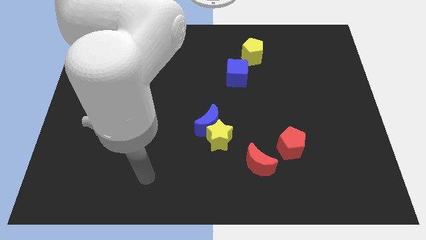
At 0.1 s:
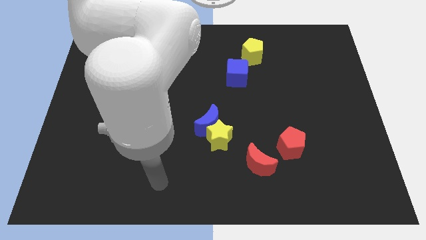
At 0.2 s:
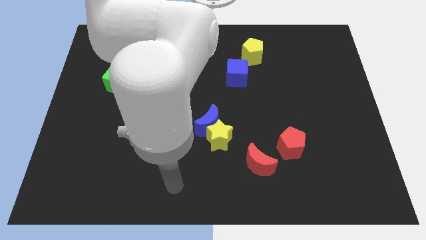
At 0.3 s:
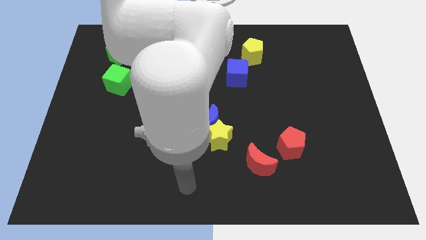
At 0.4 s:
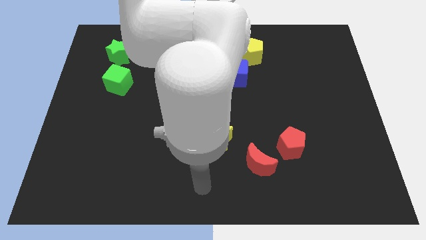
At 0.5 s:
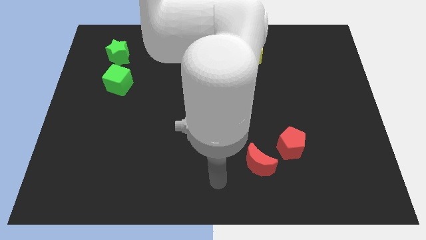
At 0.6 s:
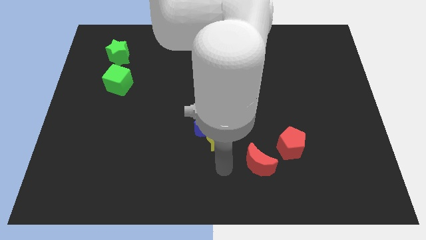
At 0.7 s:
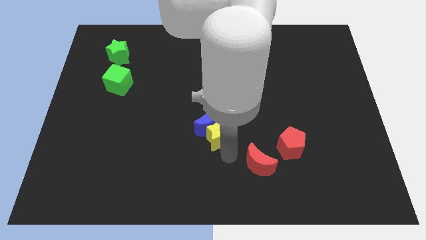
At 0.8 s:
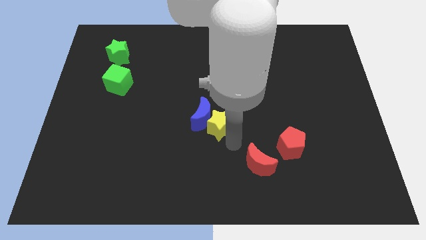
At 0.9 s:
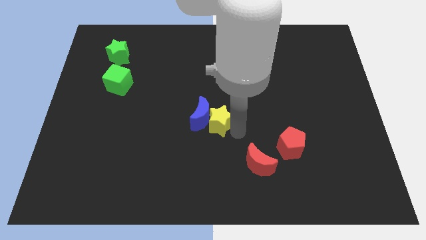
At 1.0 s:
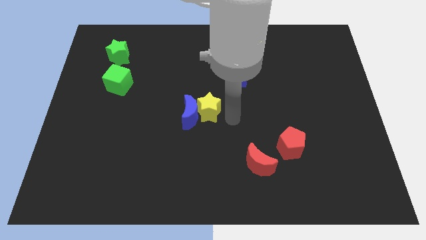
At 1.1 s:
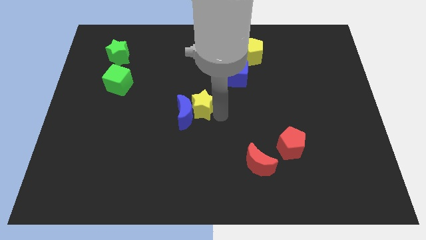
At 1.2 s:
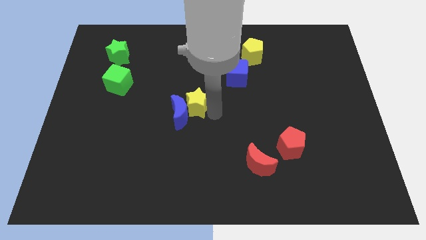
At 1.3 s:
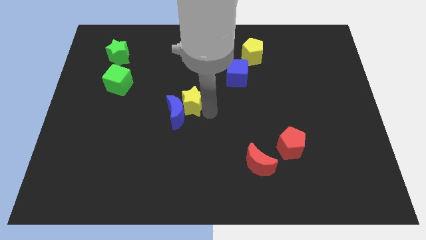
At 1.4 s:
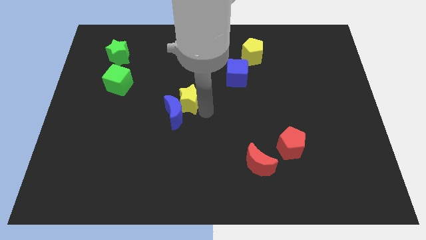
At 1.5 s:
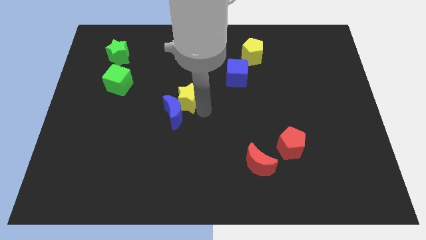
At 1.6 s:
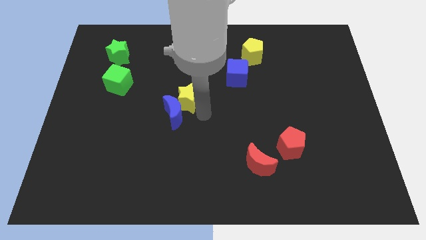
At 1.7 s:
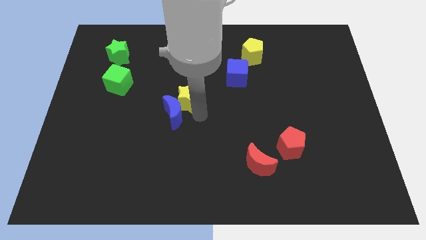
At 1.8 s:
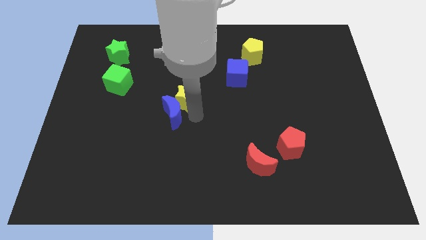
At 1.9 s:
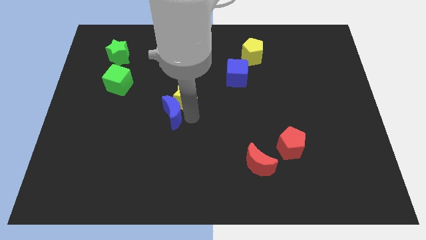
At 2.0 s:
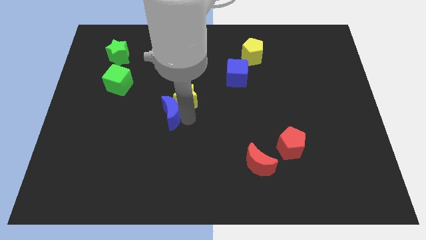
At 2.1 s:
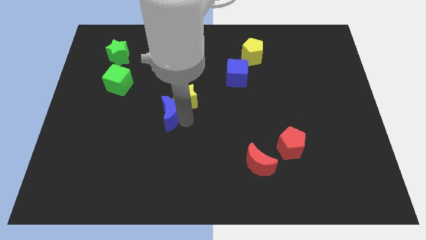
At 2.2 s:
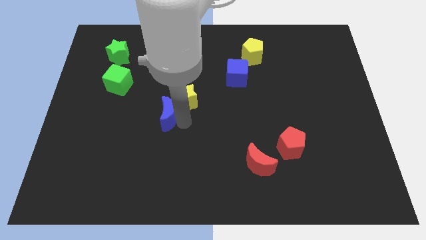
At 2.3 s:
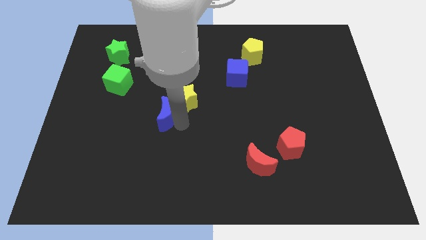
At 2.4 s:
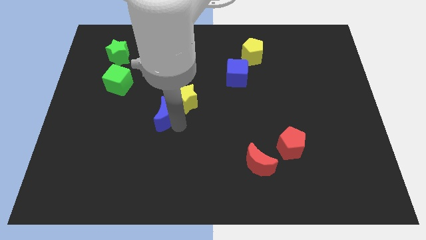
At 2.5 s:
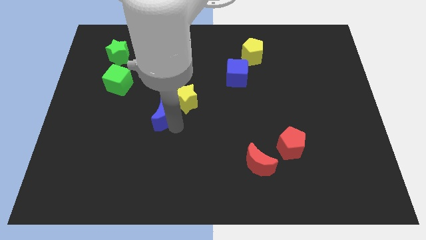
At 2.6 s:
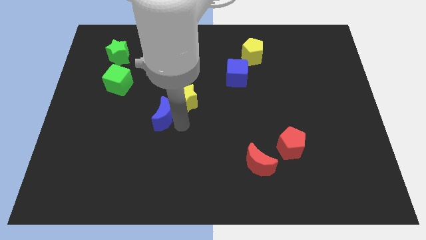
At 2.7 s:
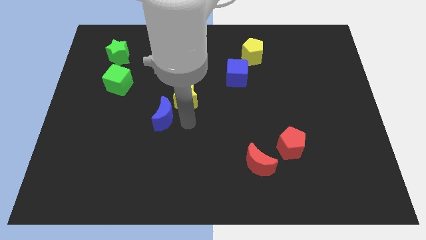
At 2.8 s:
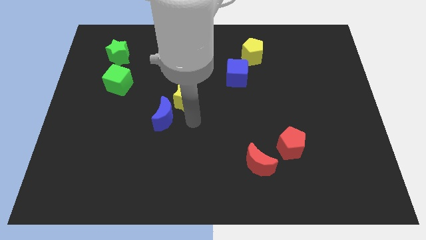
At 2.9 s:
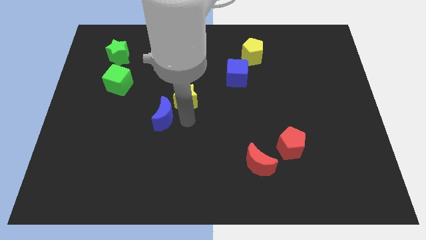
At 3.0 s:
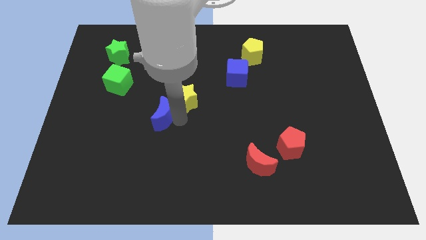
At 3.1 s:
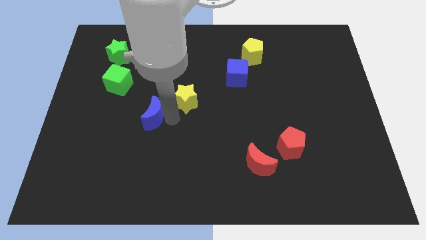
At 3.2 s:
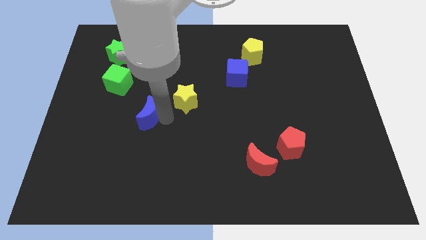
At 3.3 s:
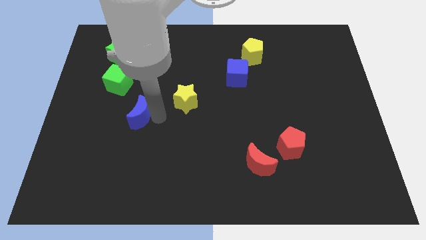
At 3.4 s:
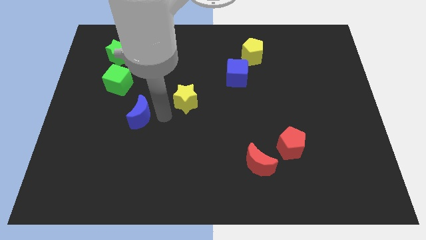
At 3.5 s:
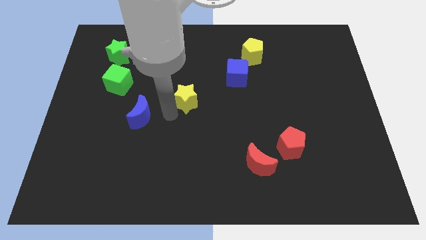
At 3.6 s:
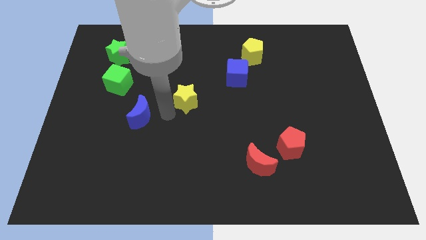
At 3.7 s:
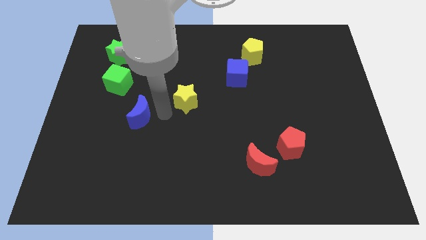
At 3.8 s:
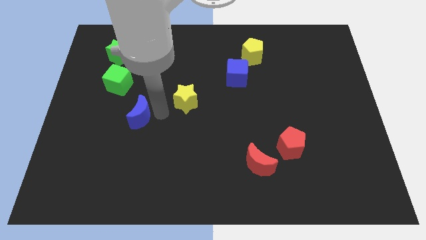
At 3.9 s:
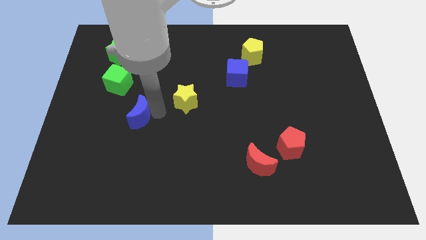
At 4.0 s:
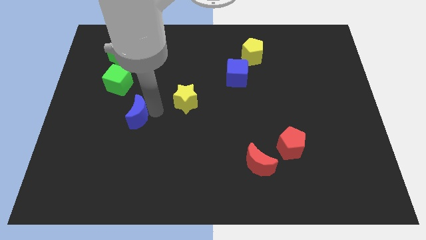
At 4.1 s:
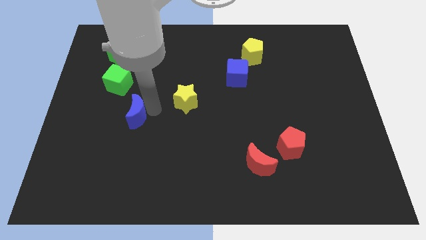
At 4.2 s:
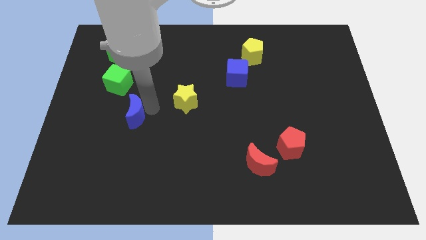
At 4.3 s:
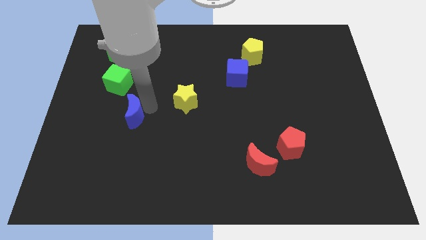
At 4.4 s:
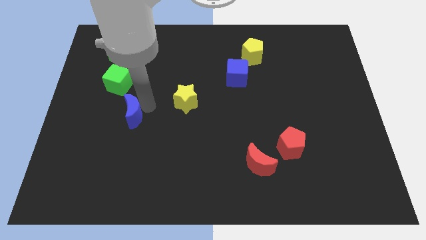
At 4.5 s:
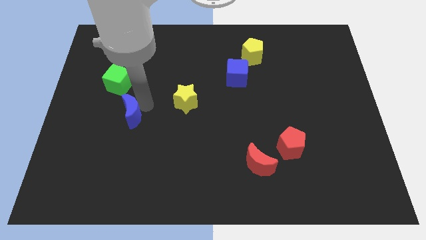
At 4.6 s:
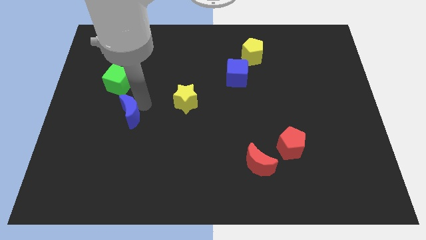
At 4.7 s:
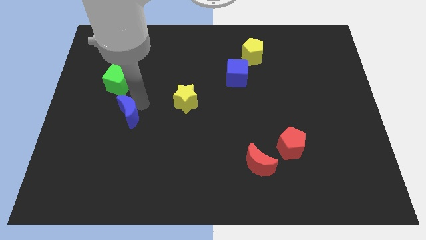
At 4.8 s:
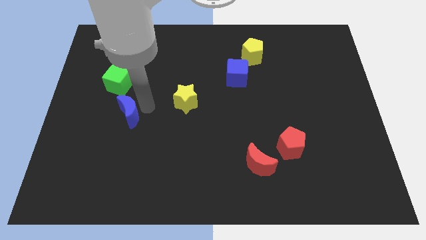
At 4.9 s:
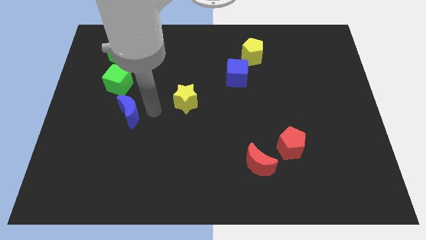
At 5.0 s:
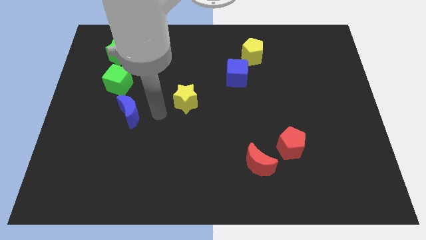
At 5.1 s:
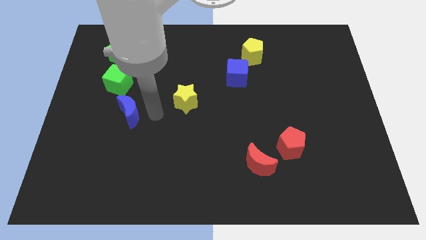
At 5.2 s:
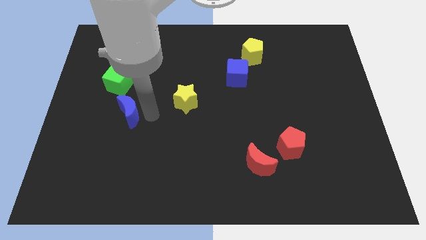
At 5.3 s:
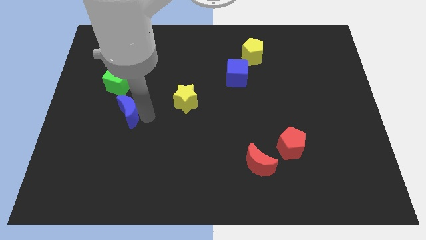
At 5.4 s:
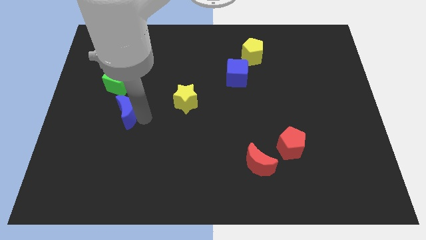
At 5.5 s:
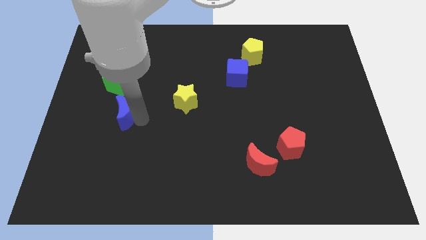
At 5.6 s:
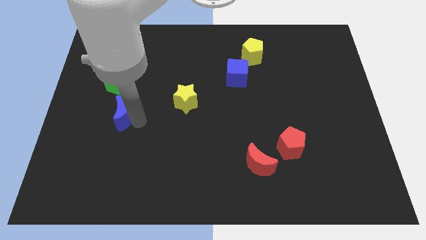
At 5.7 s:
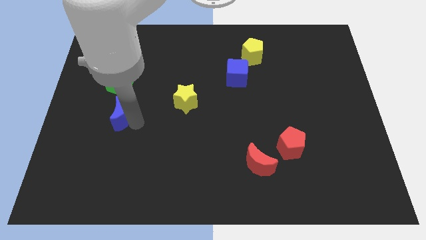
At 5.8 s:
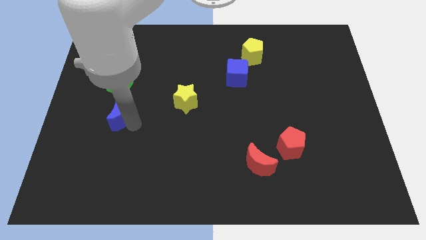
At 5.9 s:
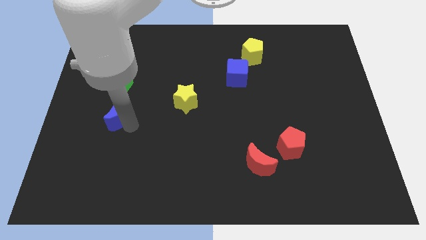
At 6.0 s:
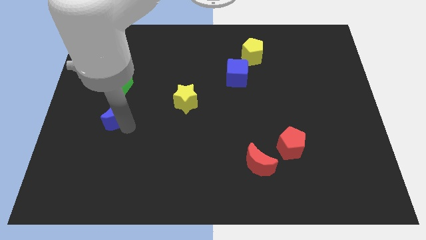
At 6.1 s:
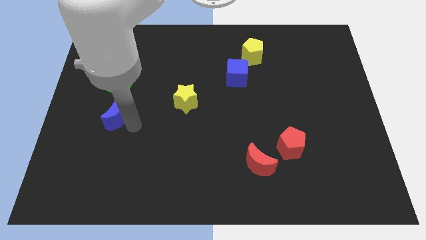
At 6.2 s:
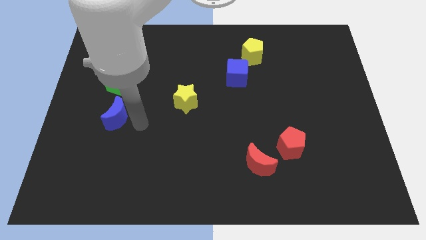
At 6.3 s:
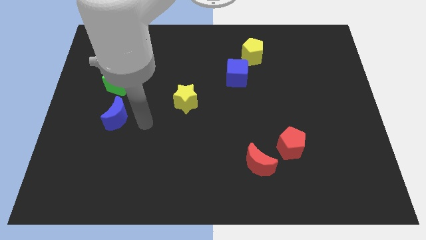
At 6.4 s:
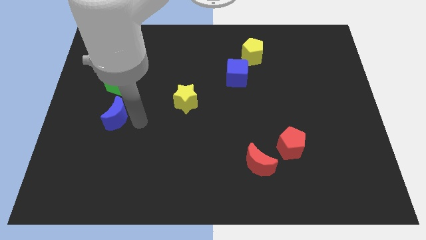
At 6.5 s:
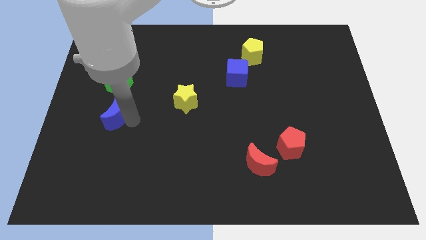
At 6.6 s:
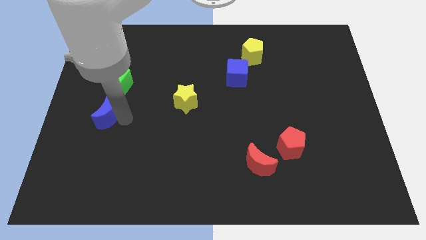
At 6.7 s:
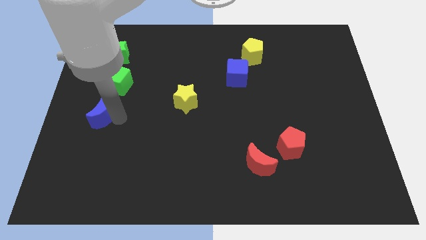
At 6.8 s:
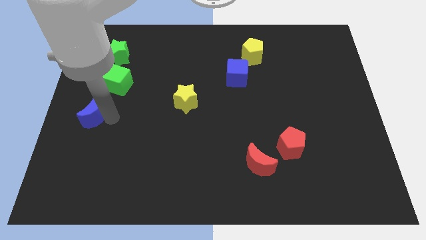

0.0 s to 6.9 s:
push the blue moon to the left side
